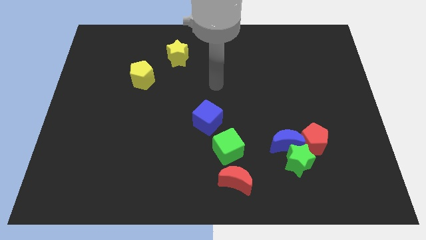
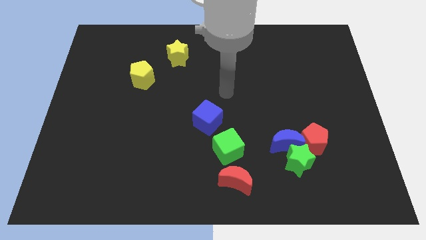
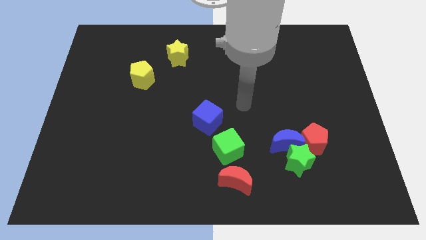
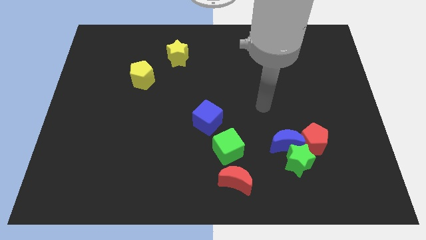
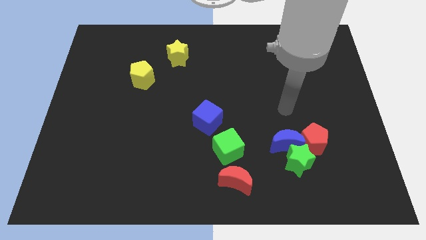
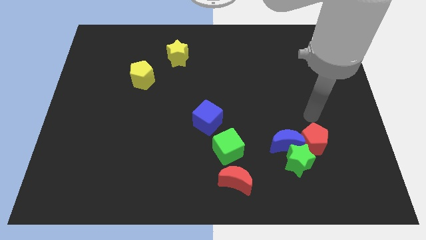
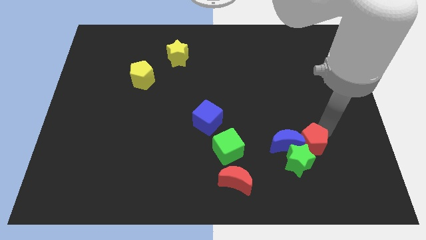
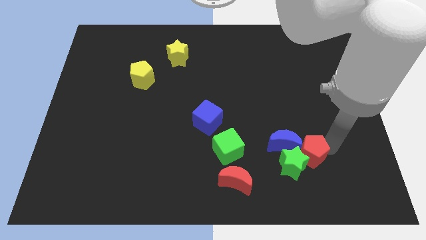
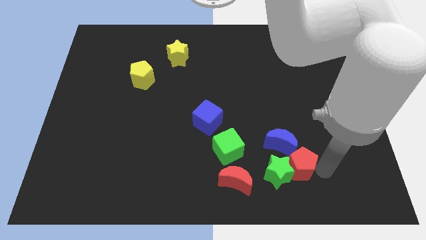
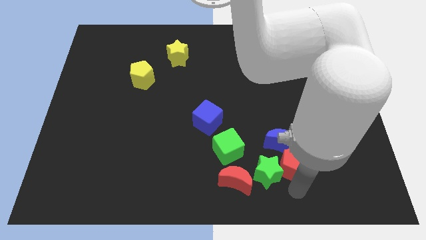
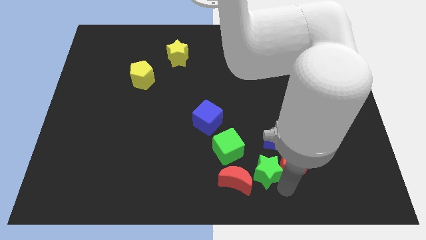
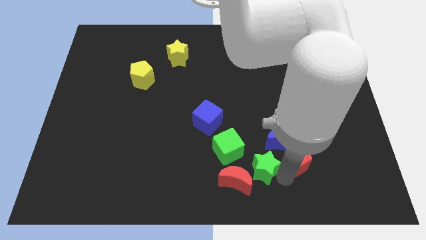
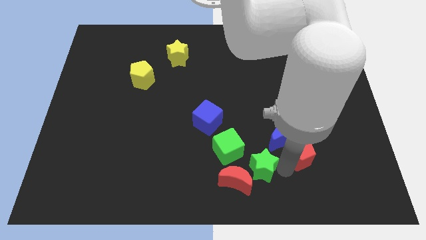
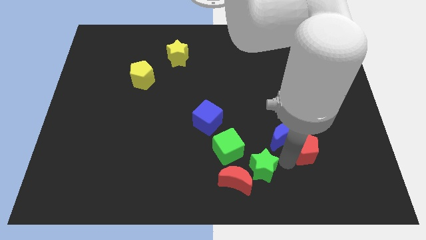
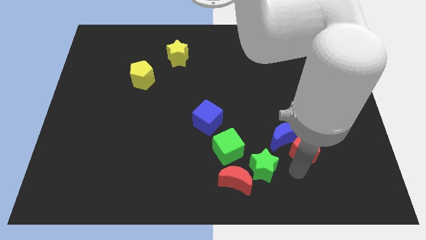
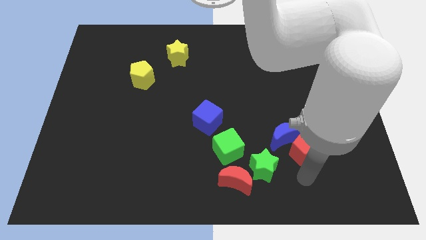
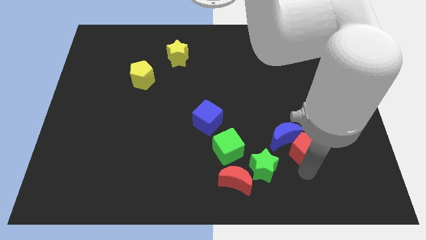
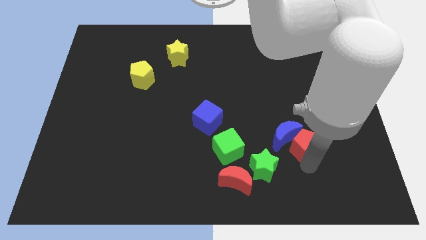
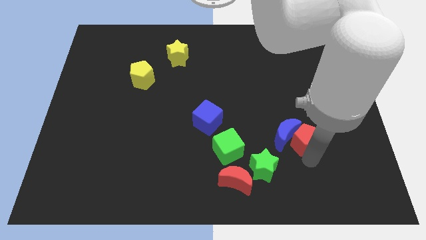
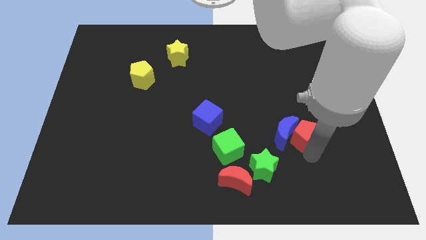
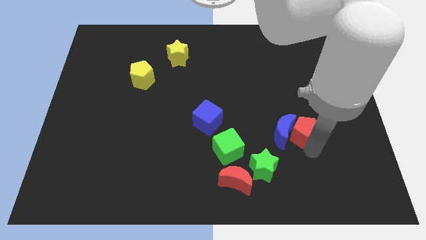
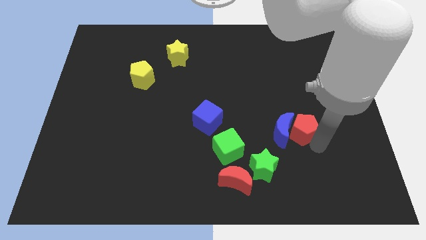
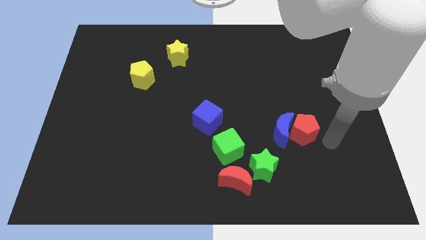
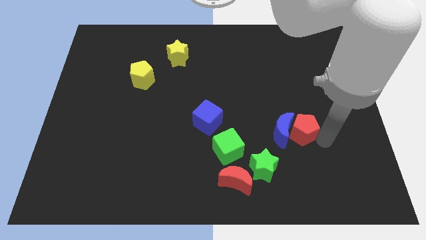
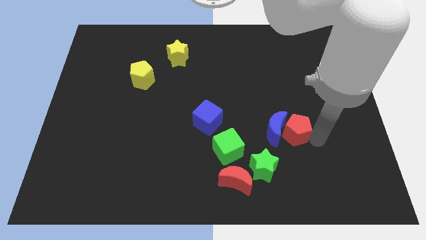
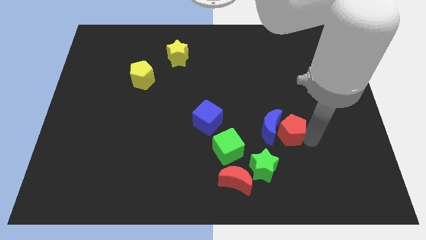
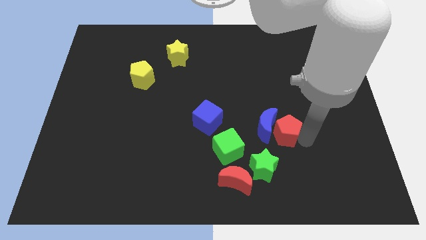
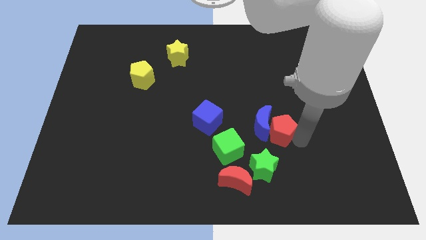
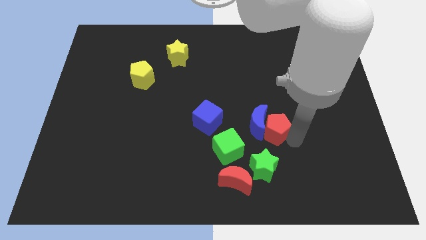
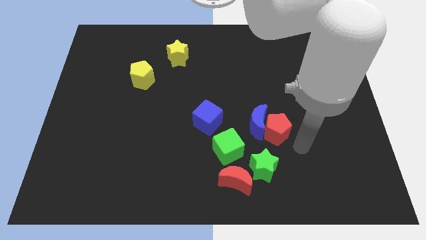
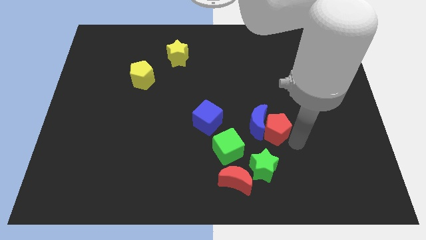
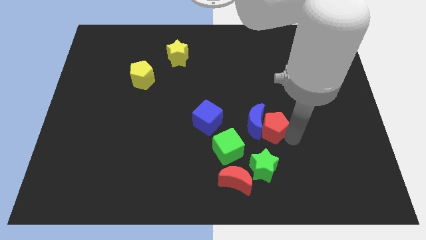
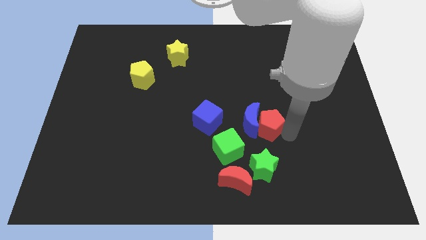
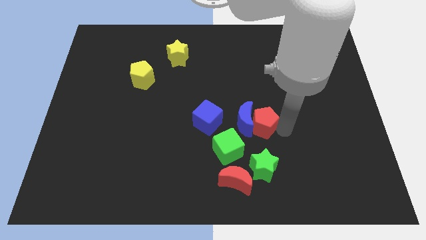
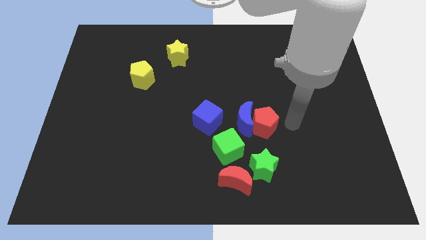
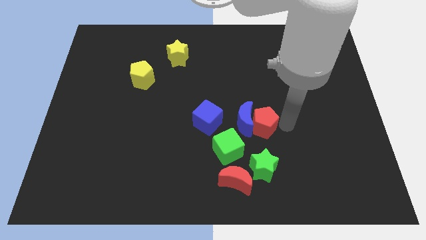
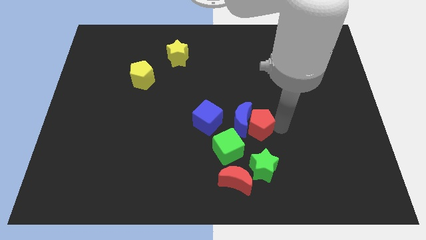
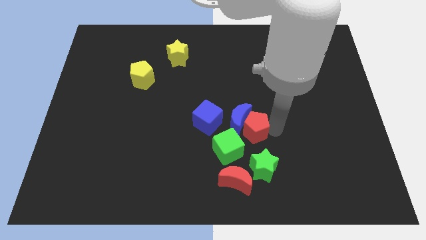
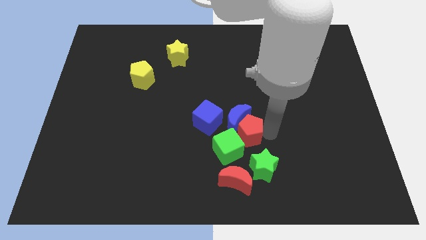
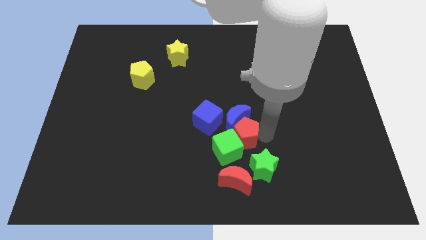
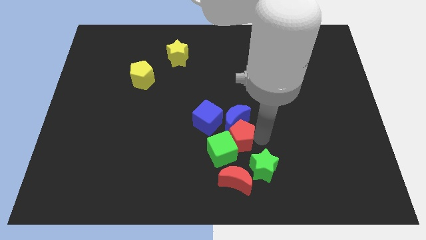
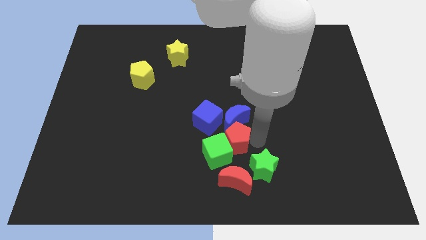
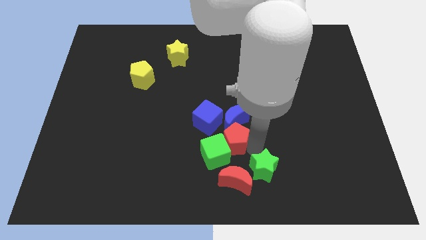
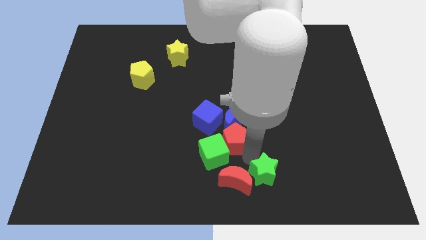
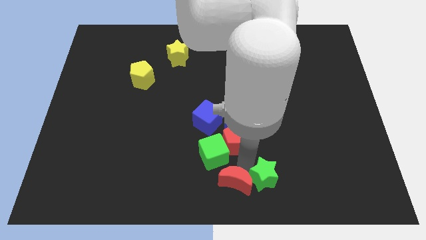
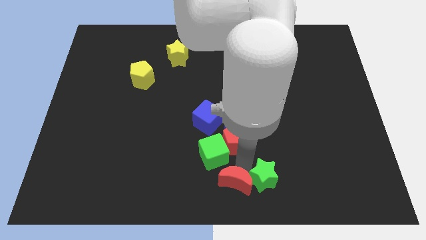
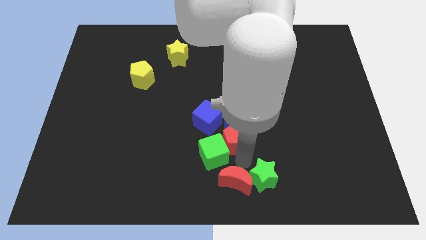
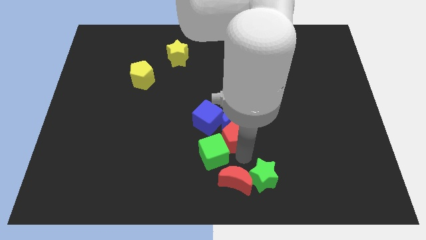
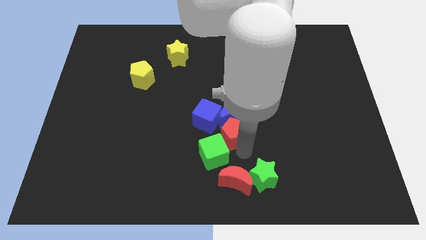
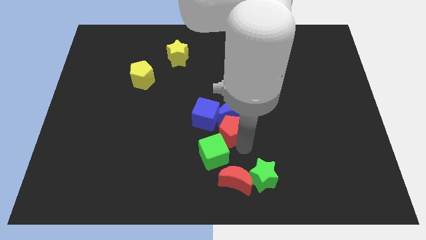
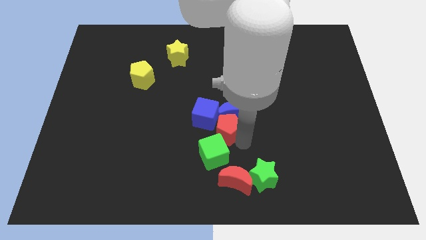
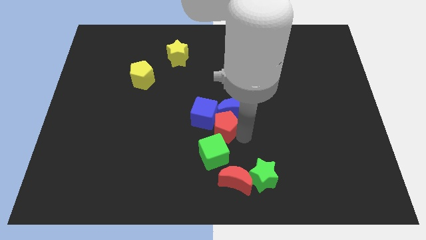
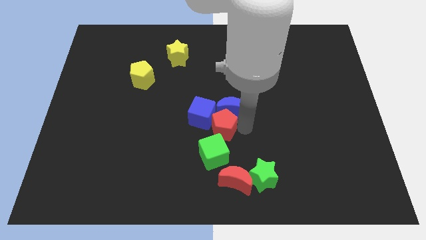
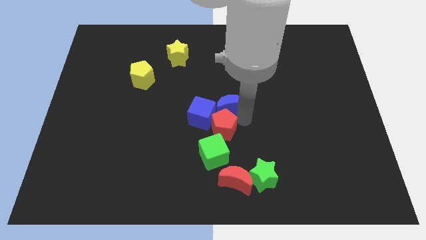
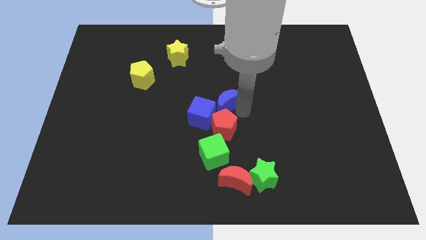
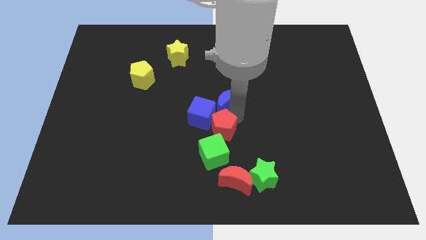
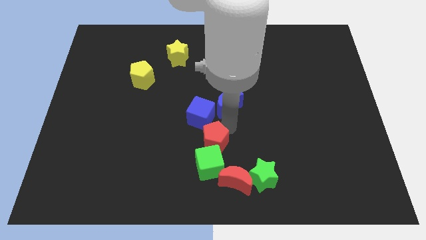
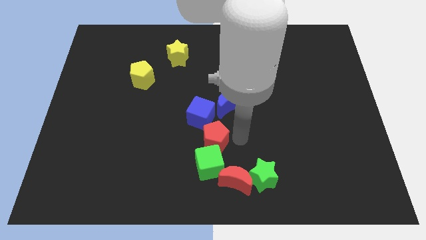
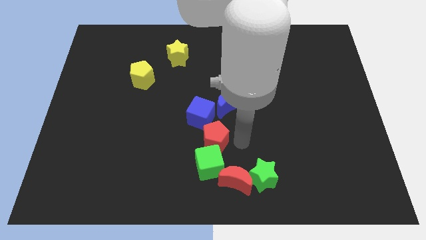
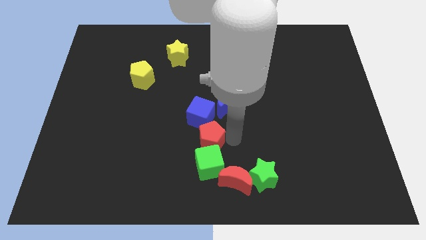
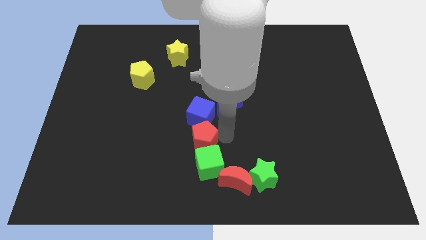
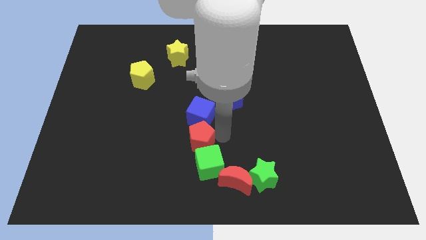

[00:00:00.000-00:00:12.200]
put the red pentagon to the bottom left side of the blue cube

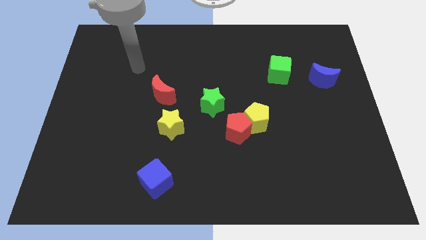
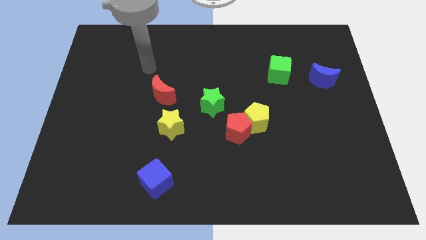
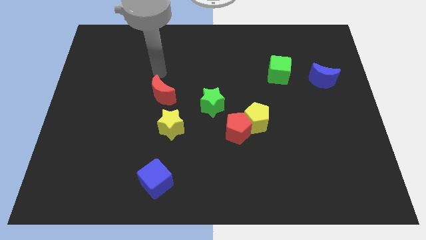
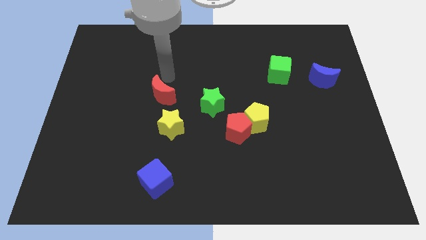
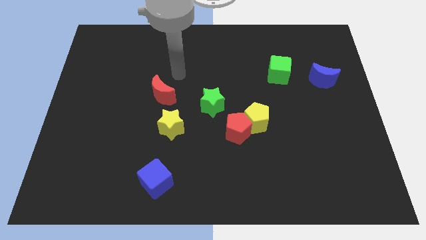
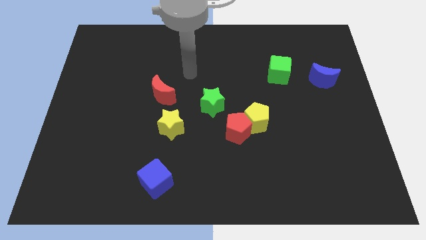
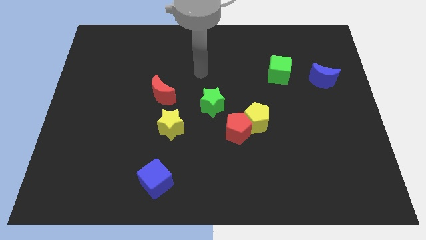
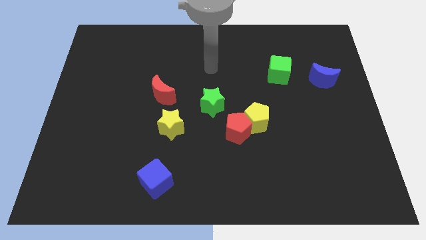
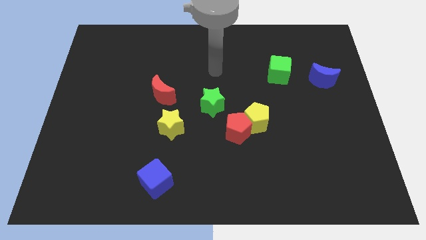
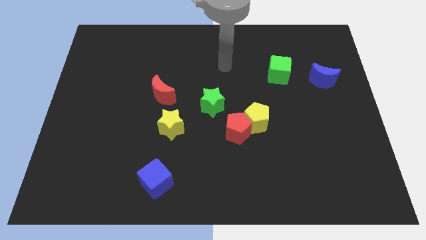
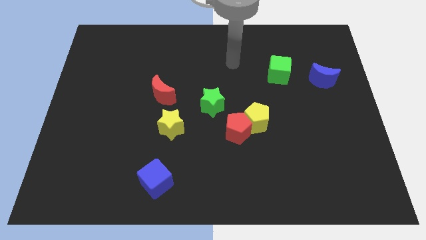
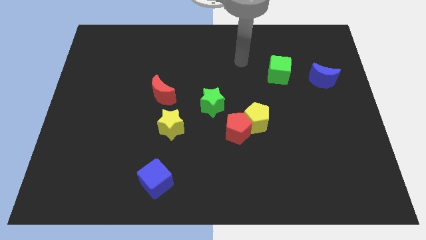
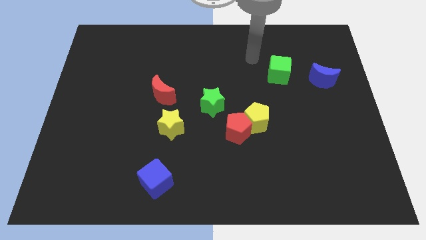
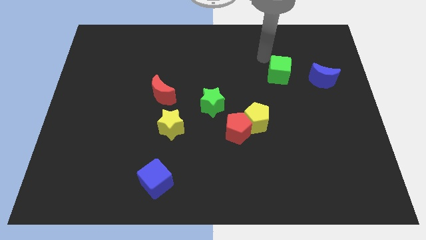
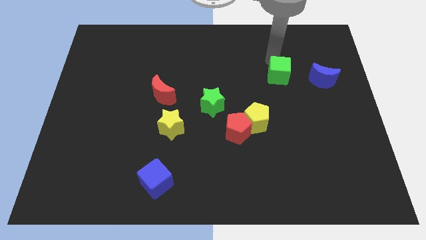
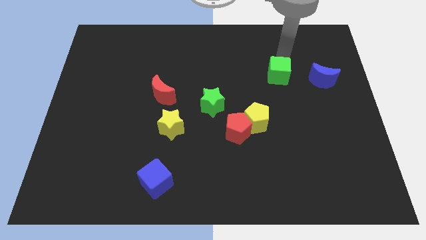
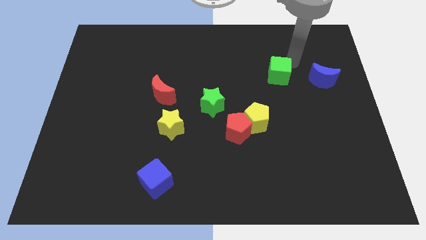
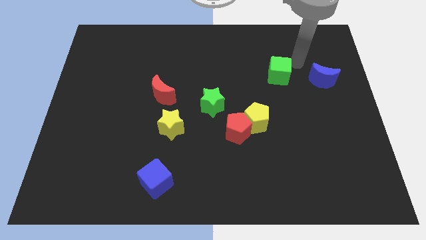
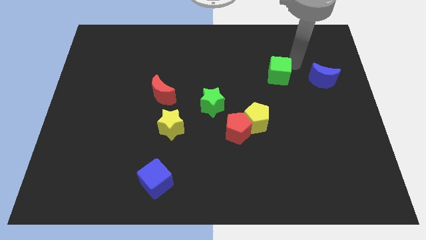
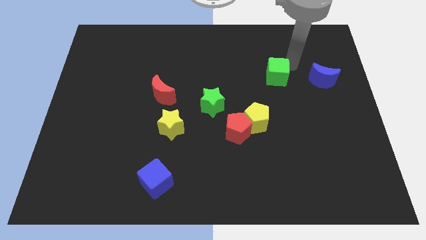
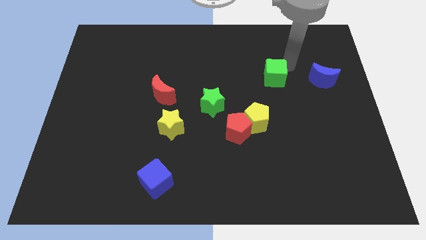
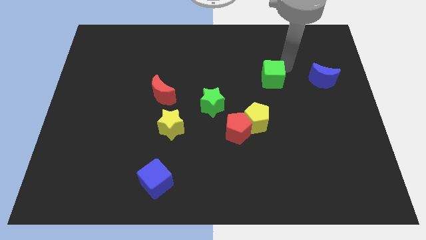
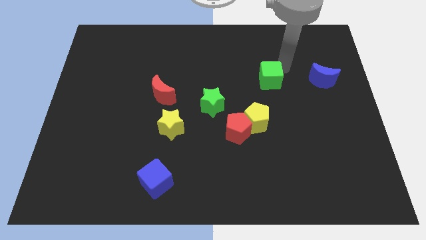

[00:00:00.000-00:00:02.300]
put the green cube above the yellow pentagon
